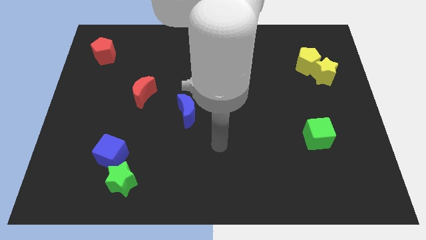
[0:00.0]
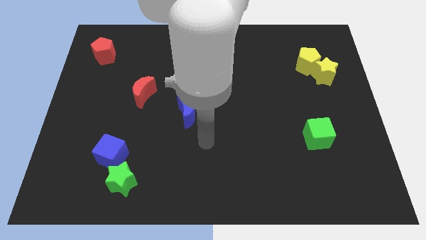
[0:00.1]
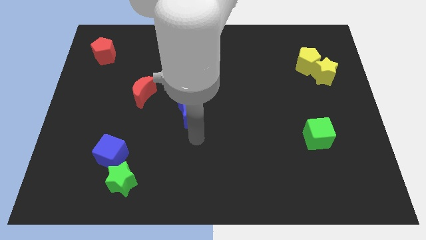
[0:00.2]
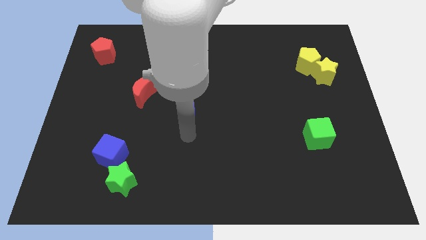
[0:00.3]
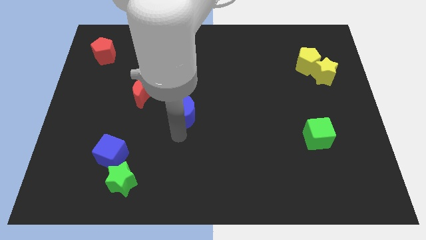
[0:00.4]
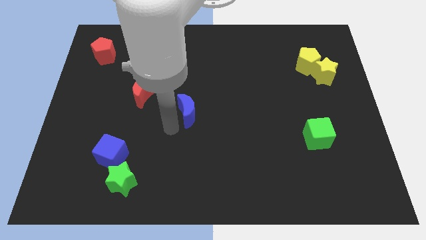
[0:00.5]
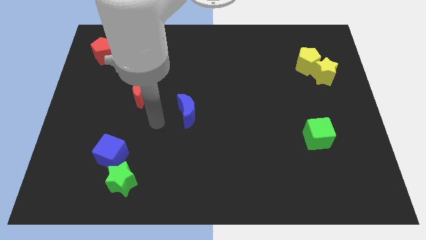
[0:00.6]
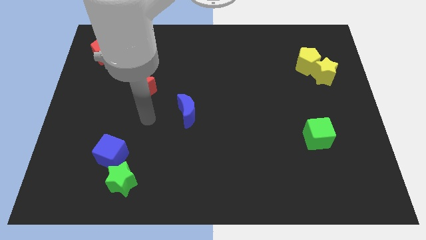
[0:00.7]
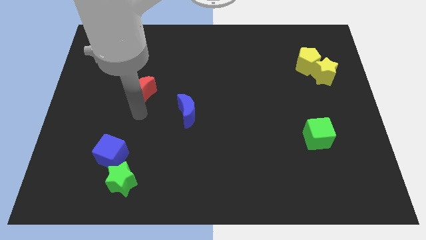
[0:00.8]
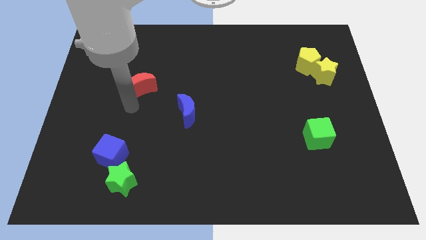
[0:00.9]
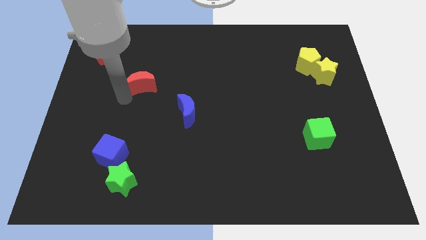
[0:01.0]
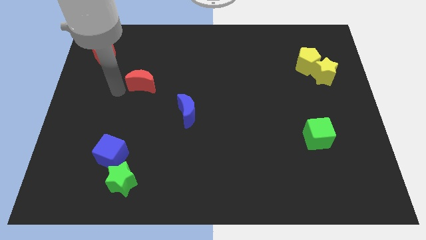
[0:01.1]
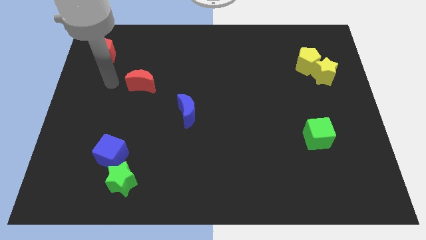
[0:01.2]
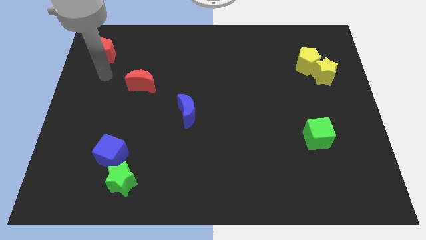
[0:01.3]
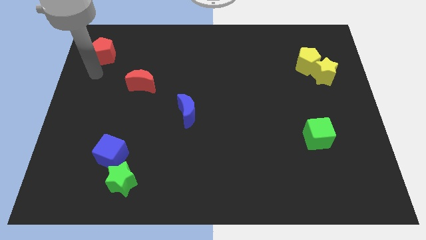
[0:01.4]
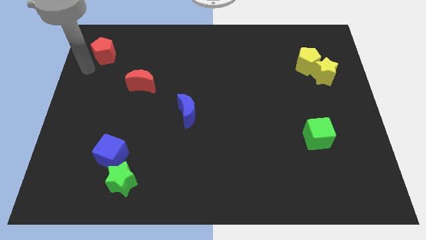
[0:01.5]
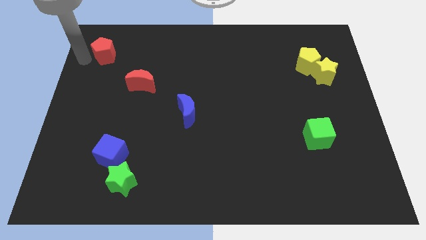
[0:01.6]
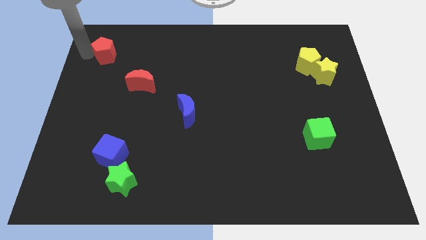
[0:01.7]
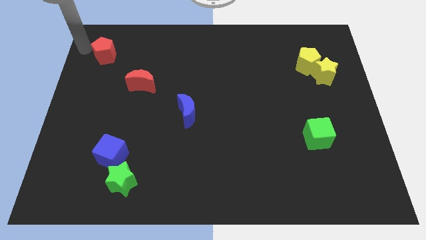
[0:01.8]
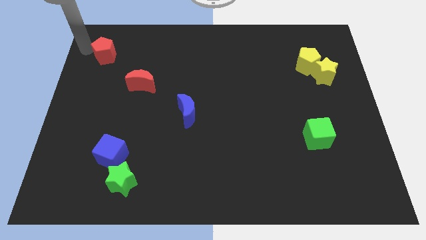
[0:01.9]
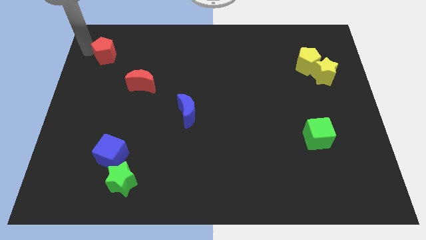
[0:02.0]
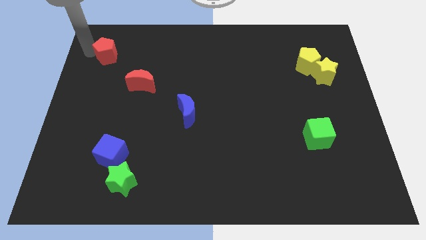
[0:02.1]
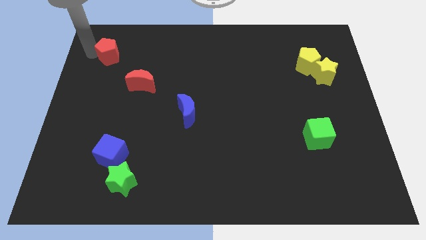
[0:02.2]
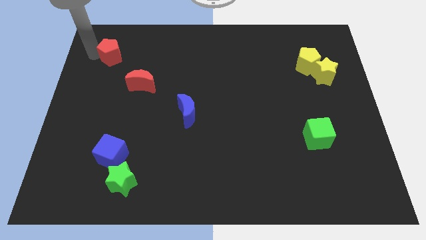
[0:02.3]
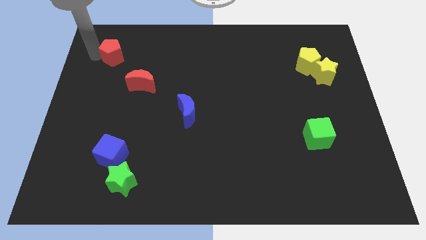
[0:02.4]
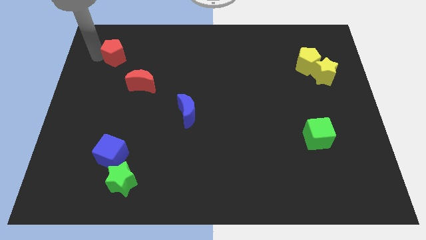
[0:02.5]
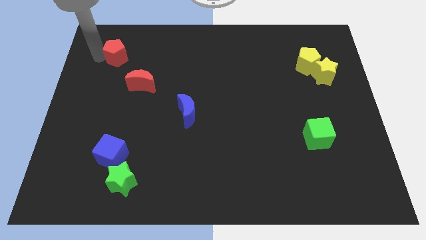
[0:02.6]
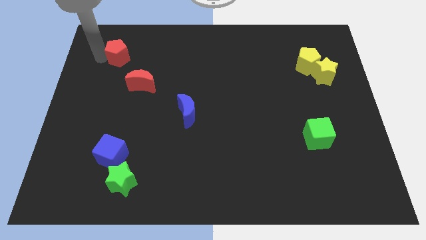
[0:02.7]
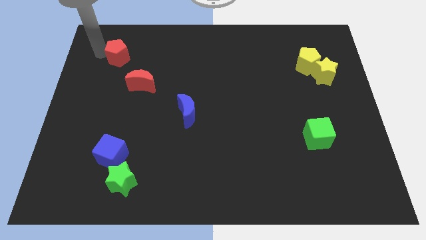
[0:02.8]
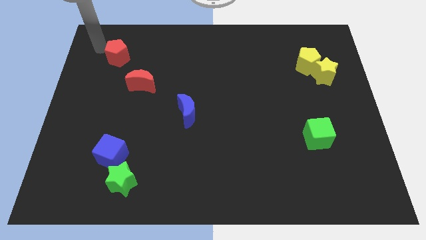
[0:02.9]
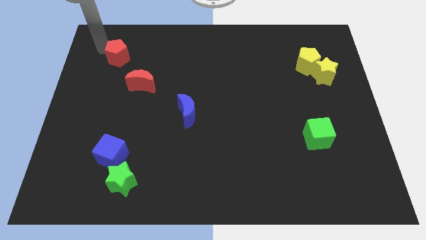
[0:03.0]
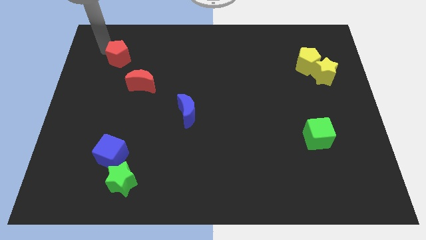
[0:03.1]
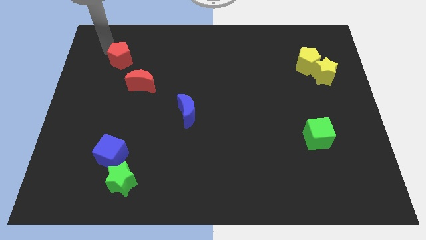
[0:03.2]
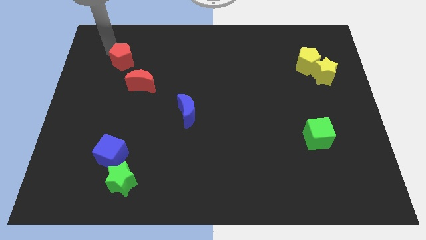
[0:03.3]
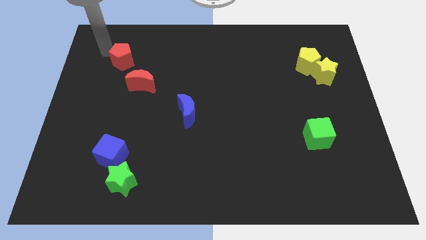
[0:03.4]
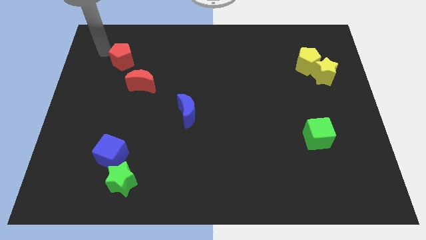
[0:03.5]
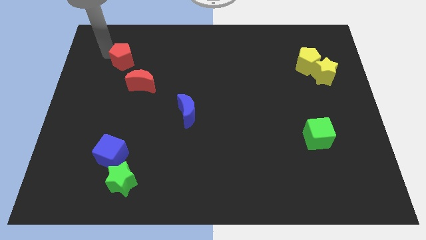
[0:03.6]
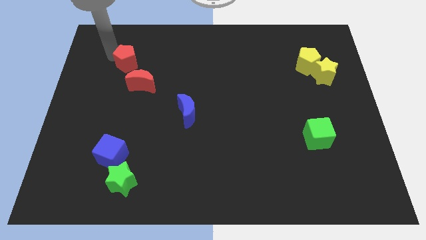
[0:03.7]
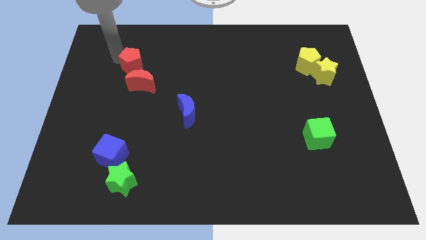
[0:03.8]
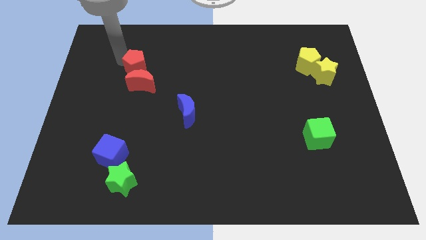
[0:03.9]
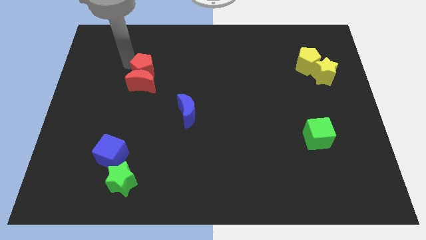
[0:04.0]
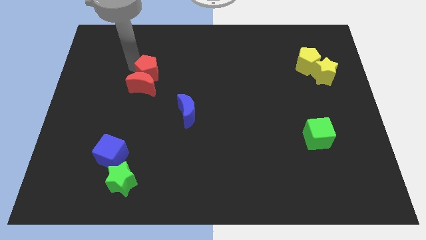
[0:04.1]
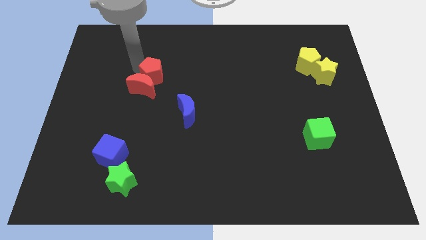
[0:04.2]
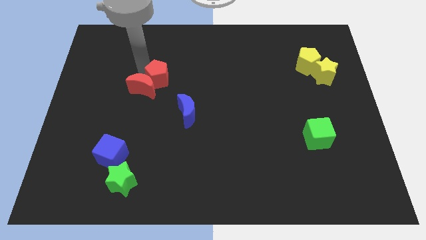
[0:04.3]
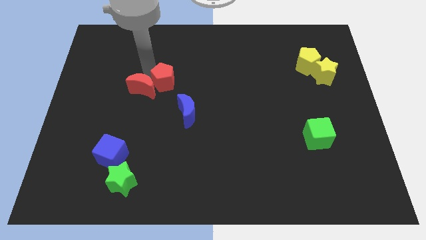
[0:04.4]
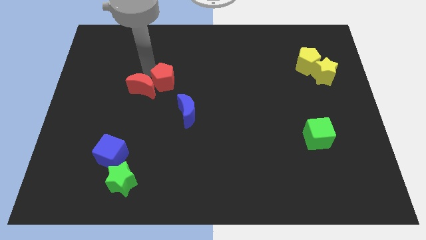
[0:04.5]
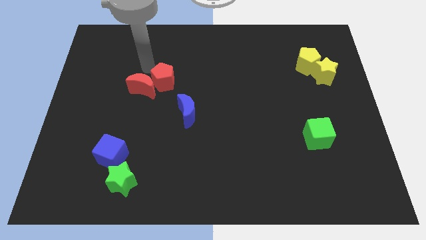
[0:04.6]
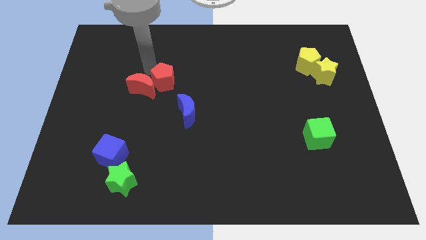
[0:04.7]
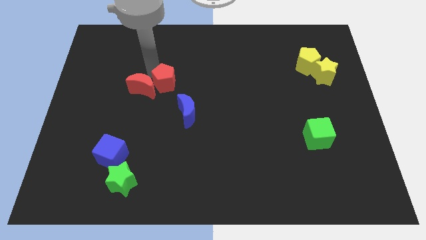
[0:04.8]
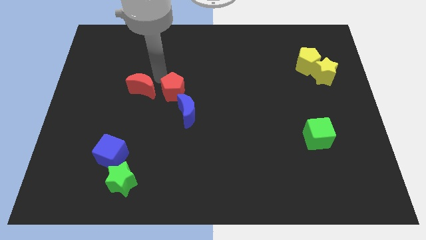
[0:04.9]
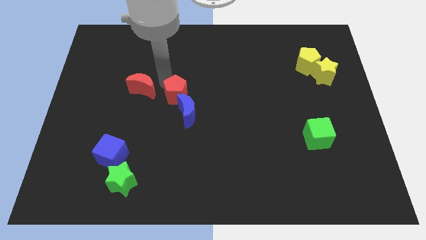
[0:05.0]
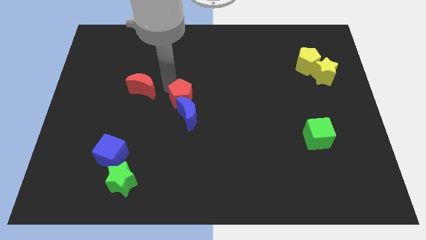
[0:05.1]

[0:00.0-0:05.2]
put the red pentagon towards the blue moon

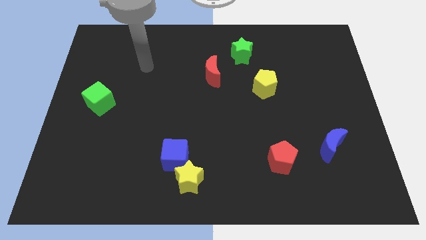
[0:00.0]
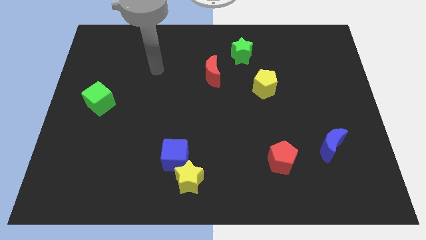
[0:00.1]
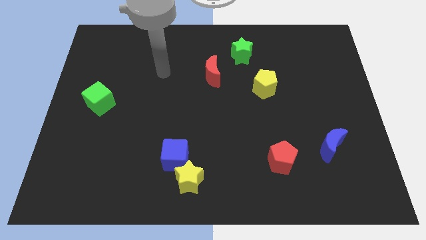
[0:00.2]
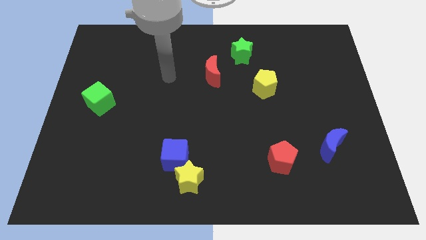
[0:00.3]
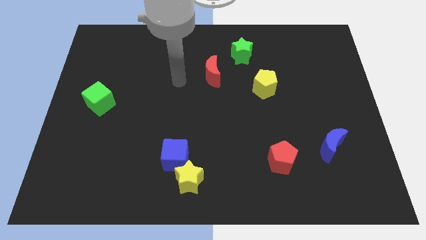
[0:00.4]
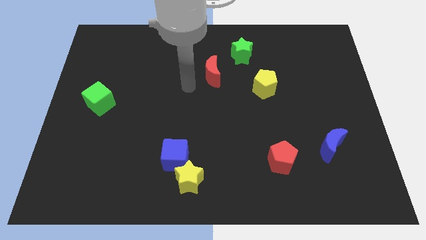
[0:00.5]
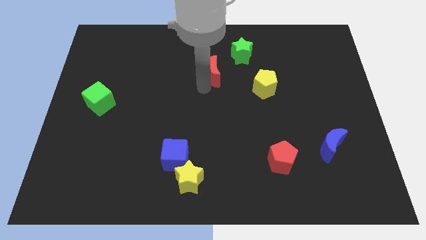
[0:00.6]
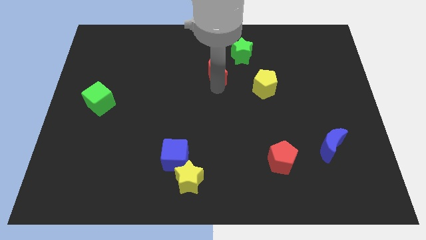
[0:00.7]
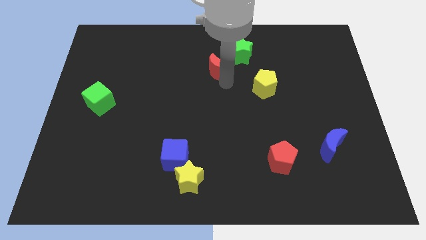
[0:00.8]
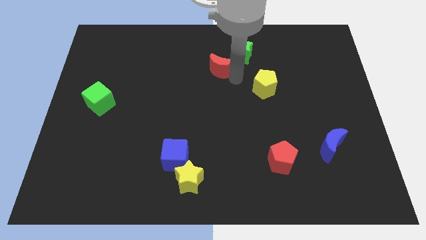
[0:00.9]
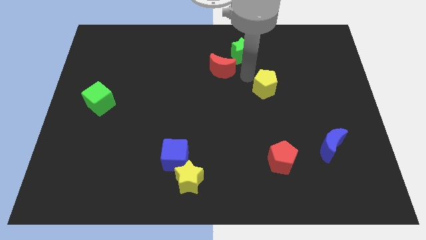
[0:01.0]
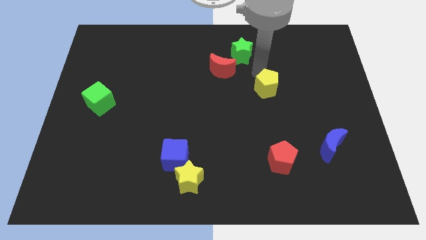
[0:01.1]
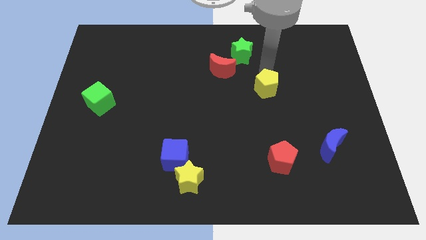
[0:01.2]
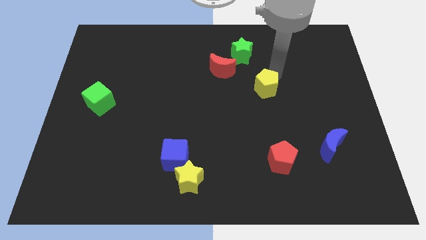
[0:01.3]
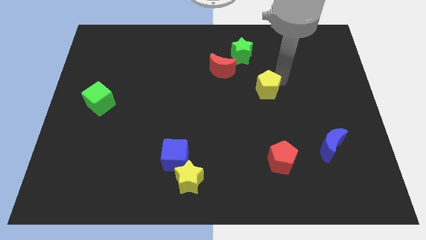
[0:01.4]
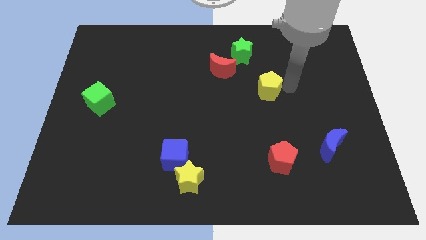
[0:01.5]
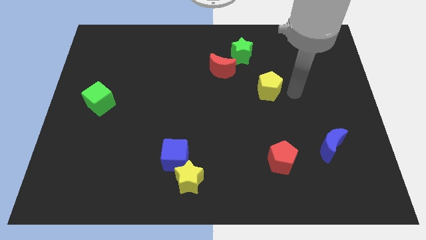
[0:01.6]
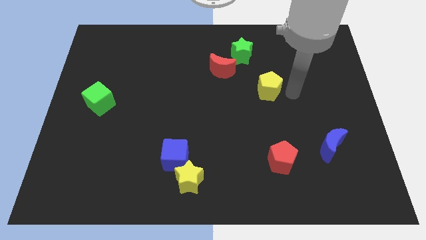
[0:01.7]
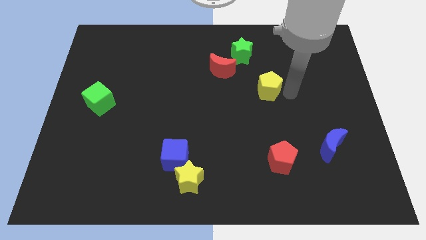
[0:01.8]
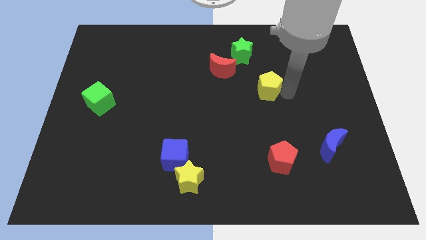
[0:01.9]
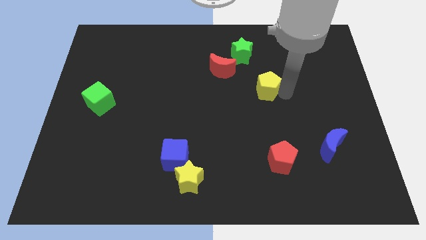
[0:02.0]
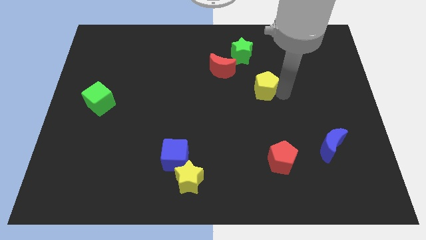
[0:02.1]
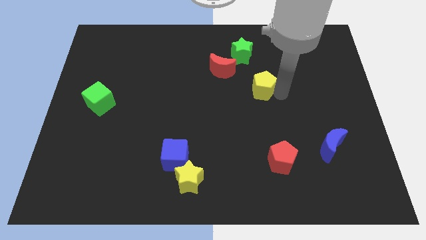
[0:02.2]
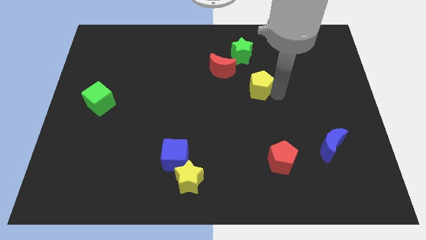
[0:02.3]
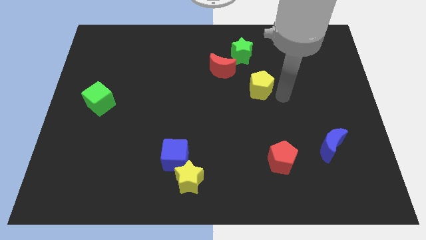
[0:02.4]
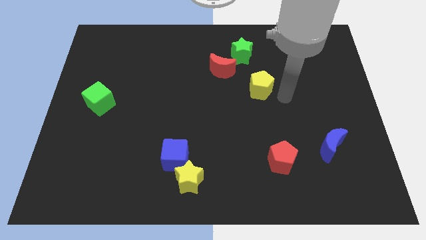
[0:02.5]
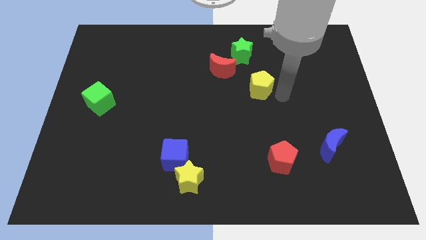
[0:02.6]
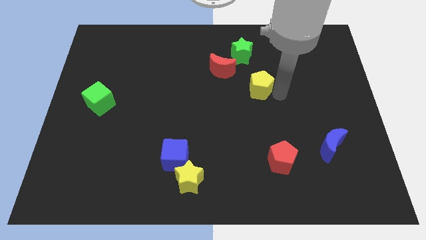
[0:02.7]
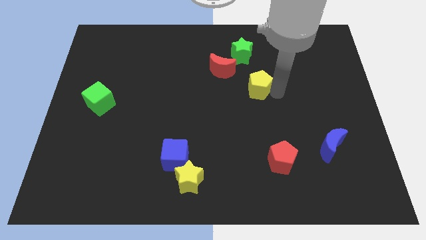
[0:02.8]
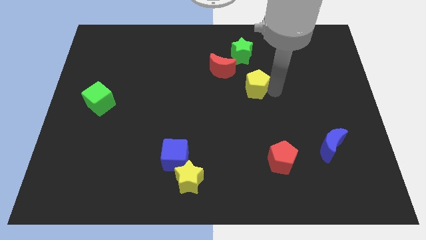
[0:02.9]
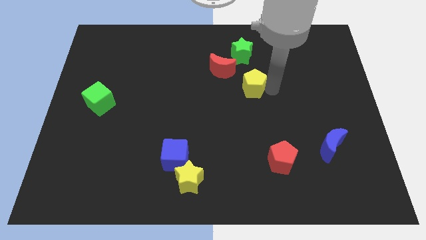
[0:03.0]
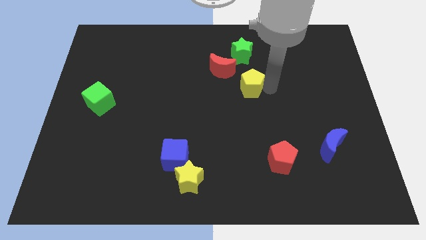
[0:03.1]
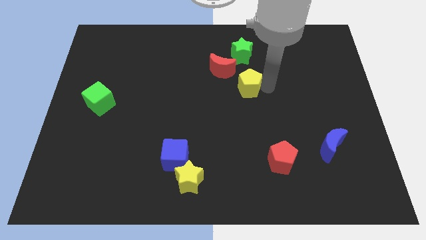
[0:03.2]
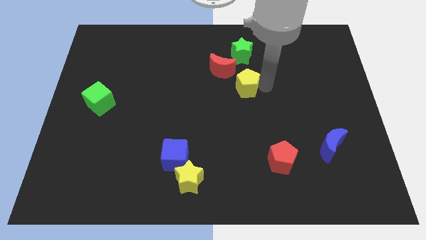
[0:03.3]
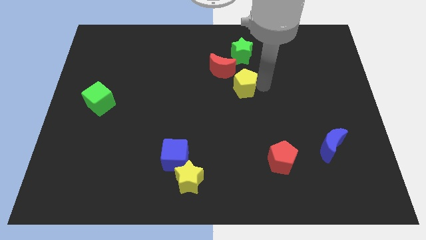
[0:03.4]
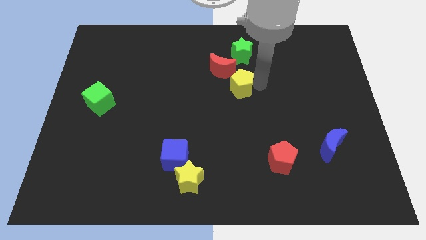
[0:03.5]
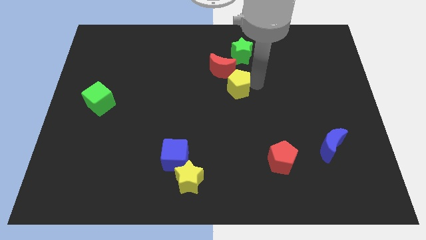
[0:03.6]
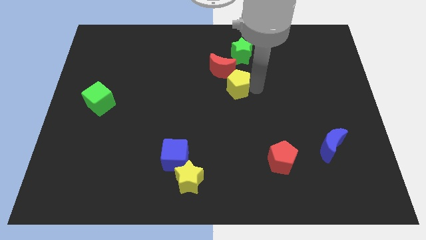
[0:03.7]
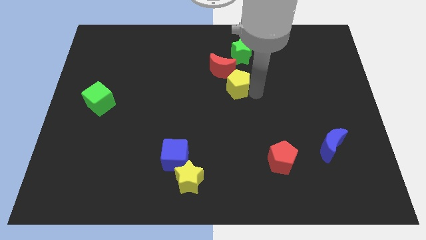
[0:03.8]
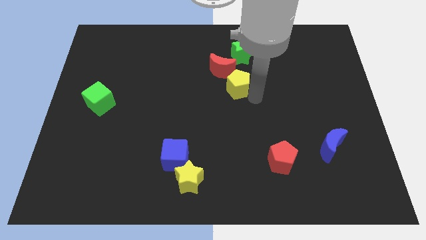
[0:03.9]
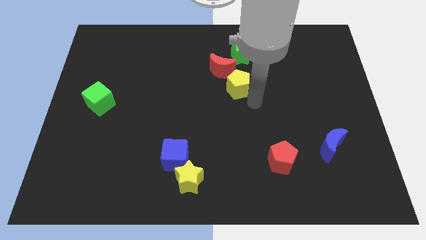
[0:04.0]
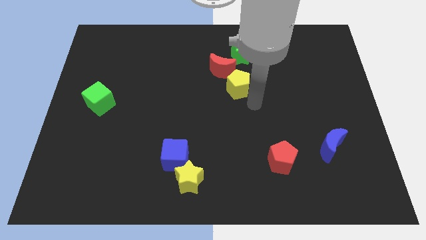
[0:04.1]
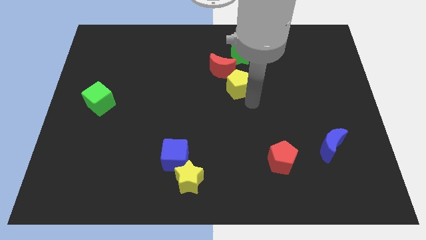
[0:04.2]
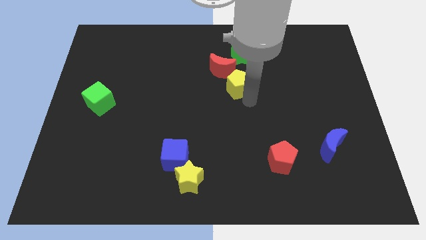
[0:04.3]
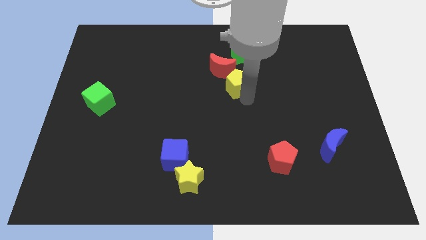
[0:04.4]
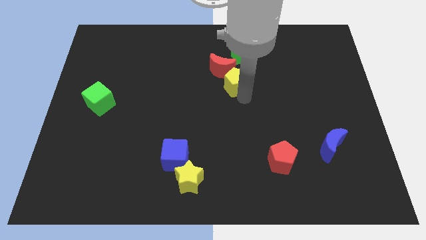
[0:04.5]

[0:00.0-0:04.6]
put the yellow pentagon close to the red moon
